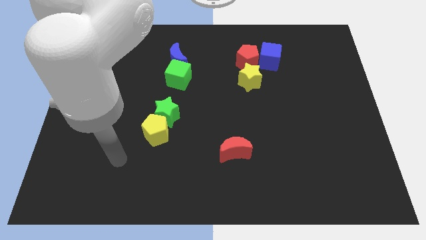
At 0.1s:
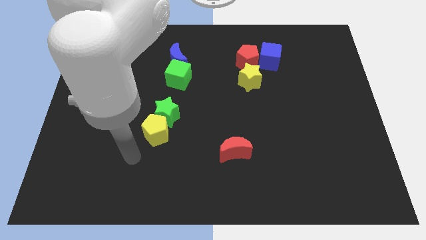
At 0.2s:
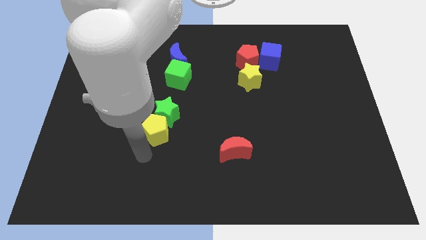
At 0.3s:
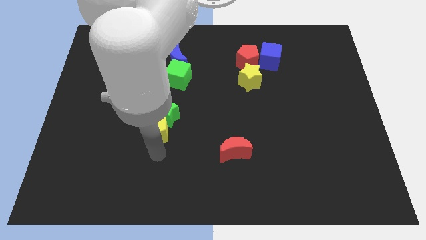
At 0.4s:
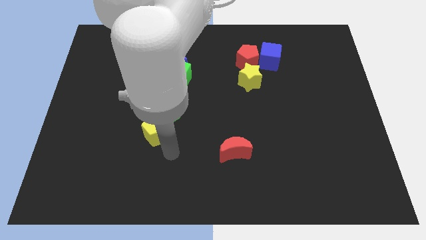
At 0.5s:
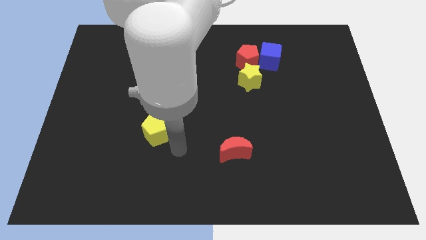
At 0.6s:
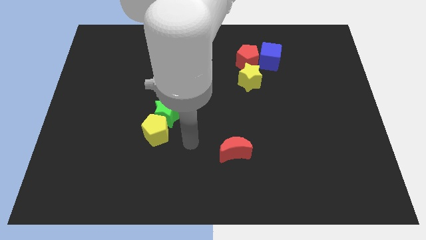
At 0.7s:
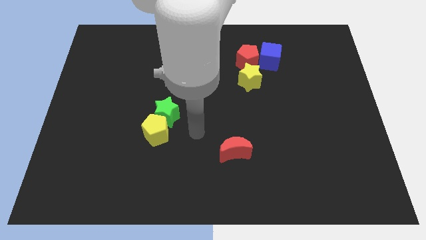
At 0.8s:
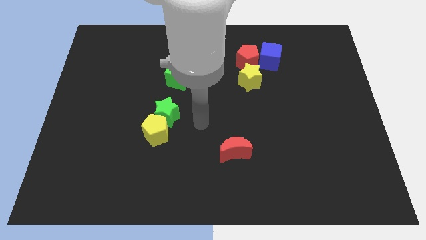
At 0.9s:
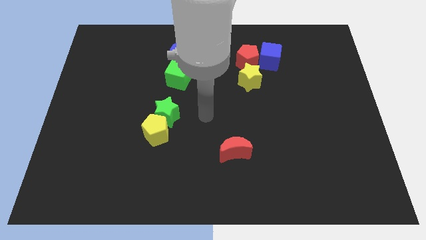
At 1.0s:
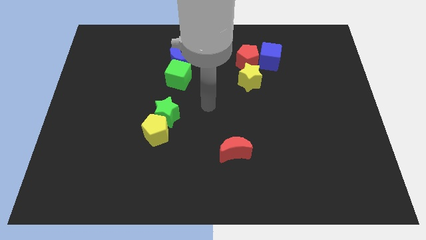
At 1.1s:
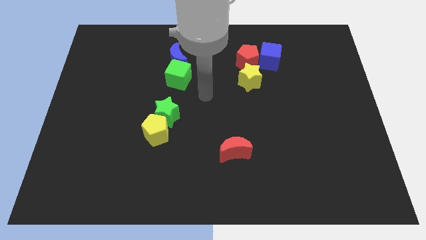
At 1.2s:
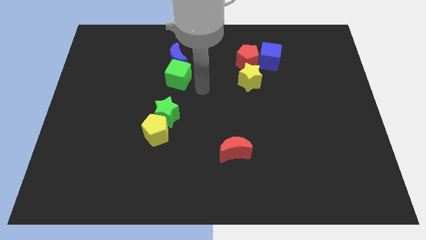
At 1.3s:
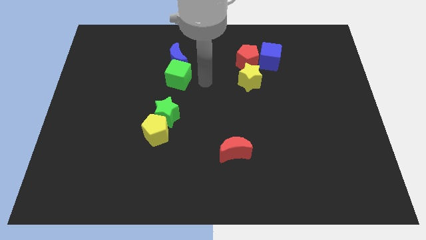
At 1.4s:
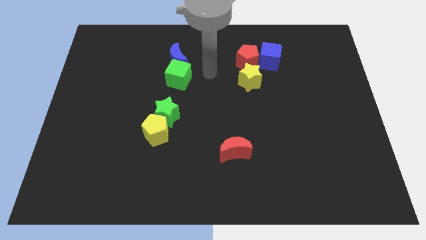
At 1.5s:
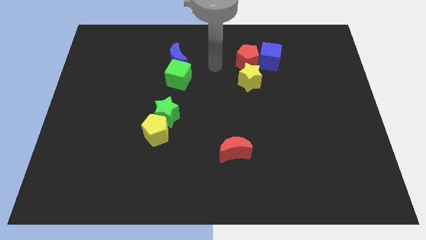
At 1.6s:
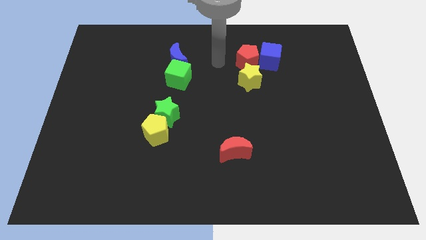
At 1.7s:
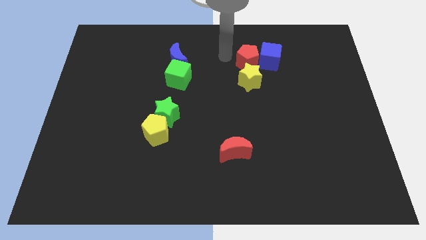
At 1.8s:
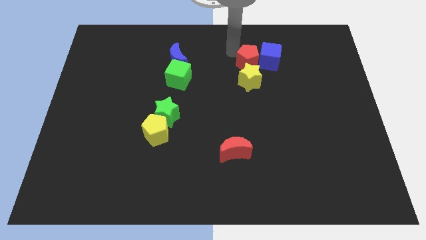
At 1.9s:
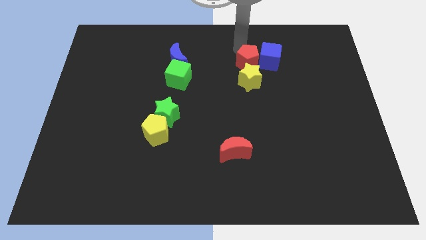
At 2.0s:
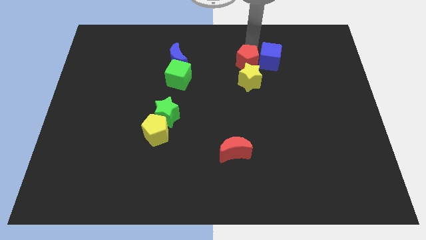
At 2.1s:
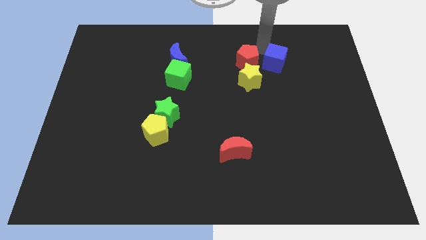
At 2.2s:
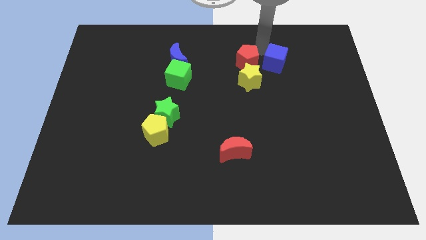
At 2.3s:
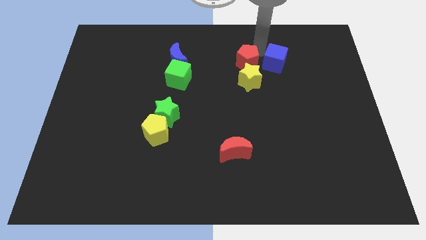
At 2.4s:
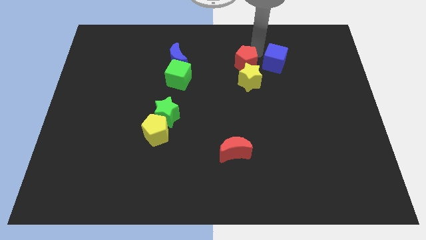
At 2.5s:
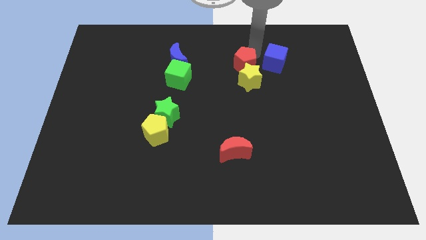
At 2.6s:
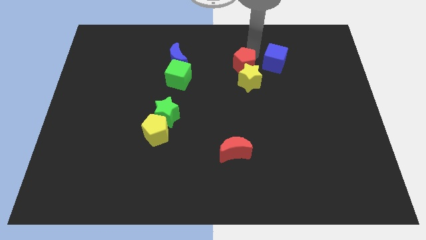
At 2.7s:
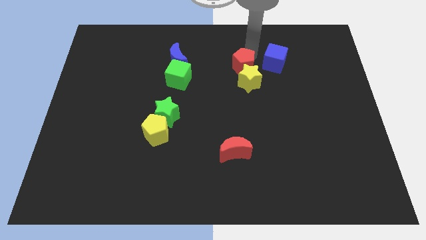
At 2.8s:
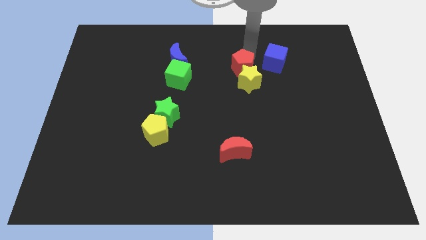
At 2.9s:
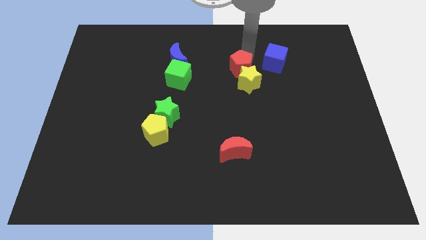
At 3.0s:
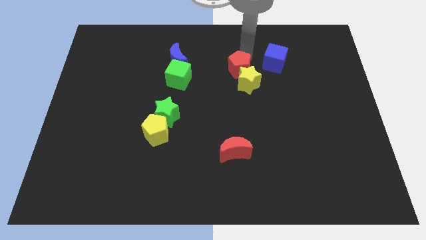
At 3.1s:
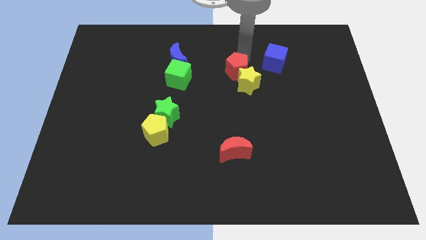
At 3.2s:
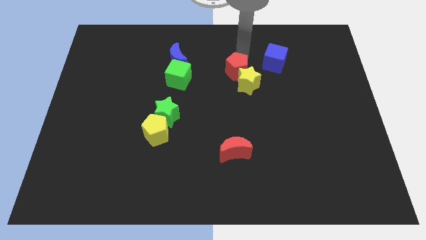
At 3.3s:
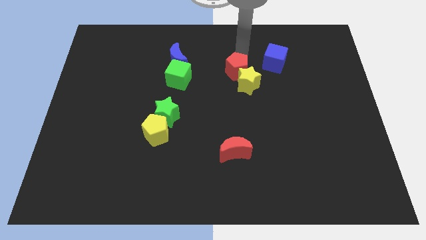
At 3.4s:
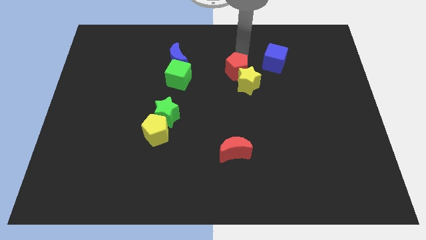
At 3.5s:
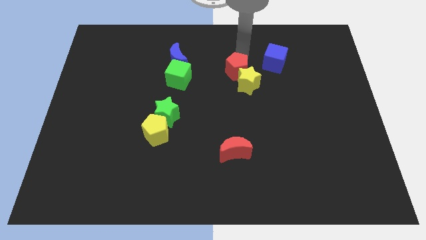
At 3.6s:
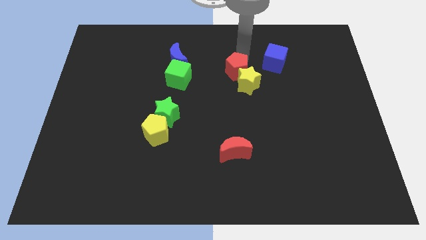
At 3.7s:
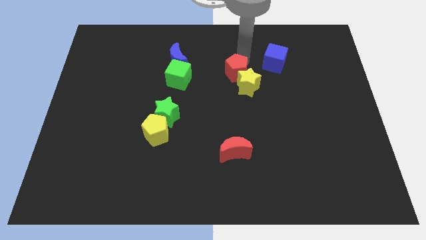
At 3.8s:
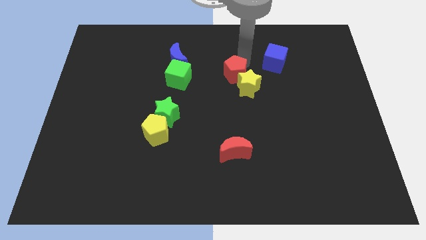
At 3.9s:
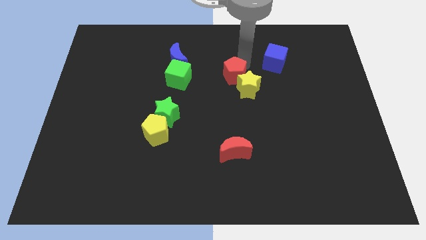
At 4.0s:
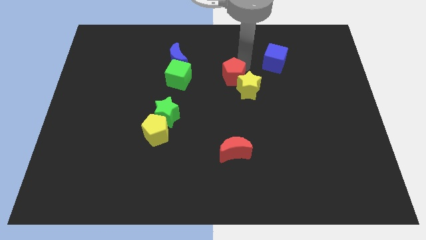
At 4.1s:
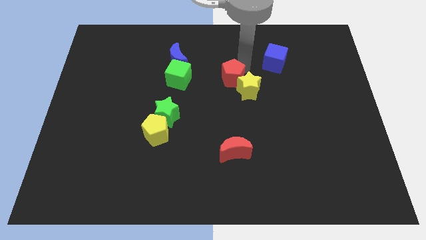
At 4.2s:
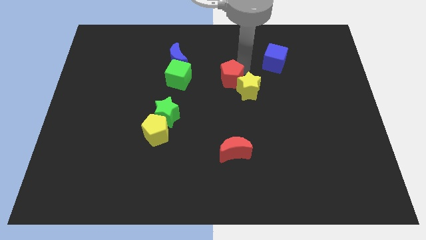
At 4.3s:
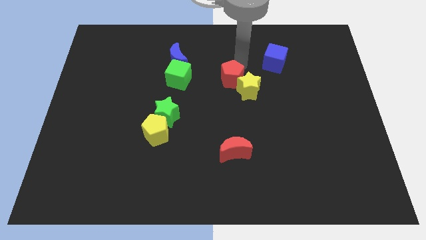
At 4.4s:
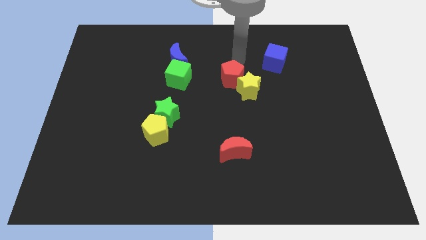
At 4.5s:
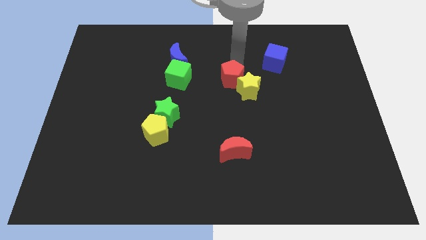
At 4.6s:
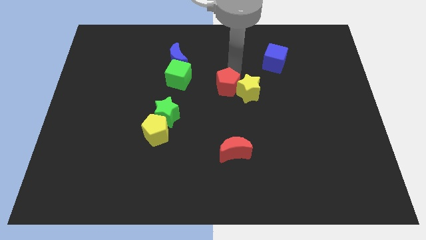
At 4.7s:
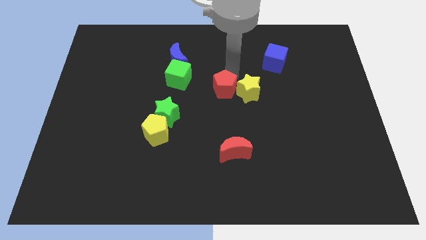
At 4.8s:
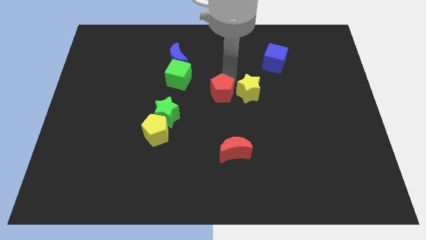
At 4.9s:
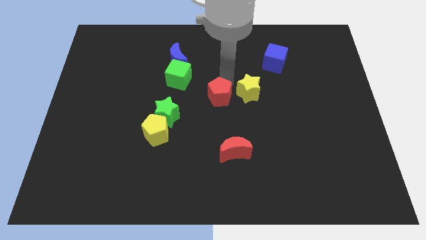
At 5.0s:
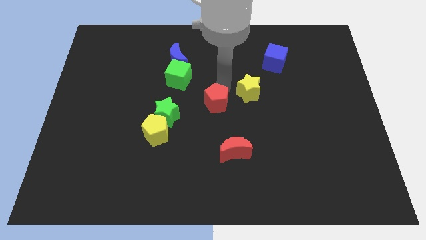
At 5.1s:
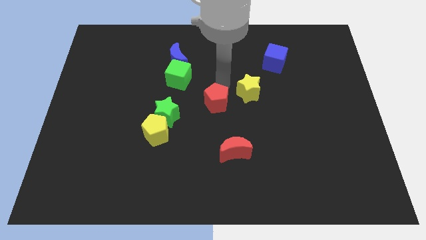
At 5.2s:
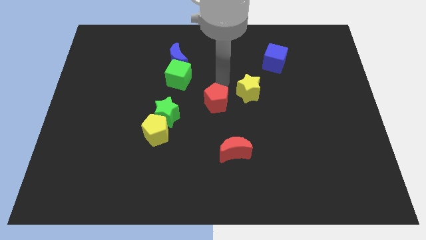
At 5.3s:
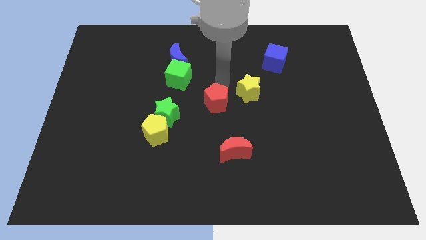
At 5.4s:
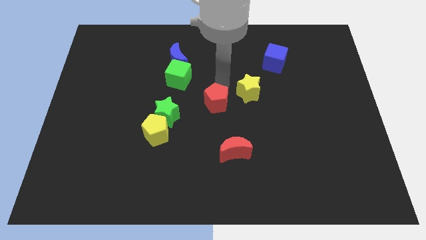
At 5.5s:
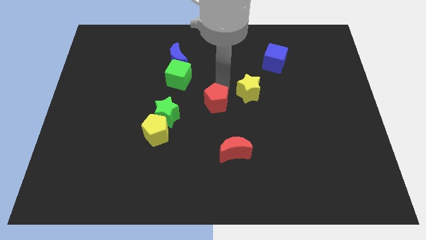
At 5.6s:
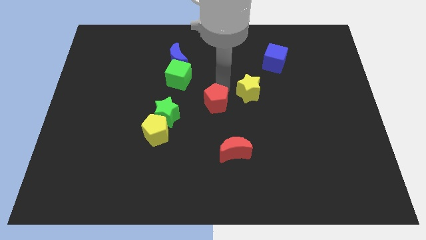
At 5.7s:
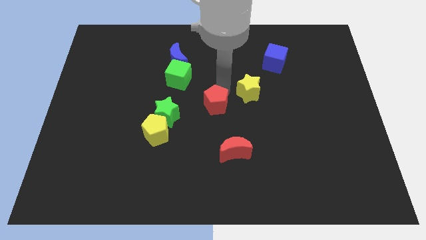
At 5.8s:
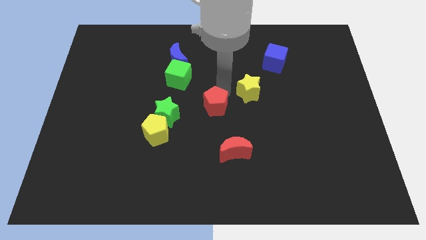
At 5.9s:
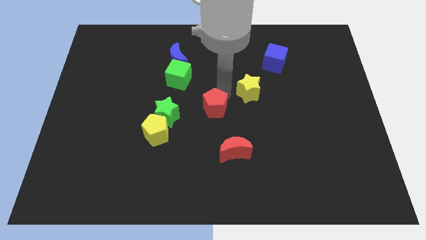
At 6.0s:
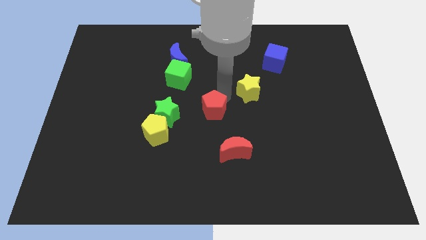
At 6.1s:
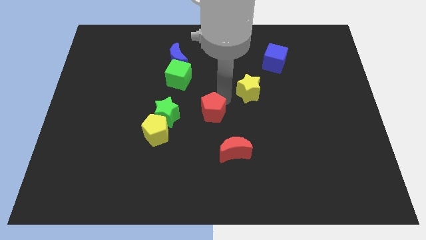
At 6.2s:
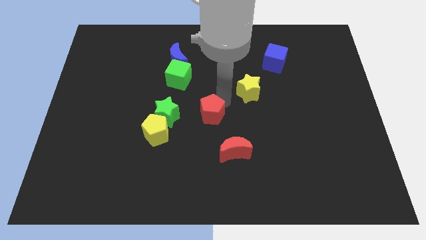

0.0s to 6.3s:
slide the red pentagon to the top left of the red moon

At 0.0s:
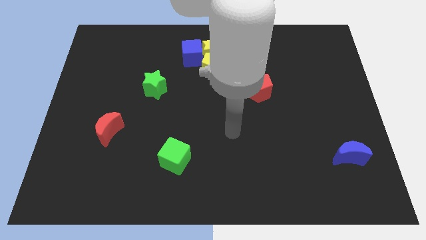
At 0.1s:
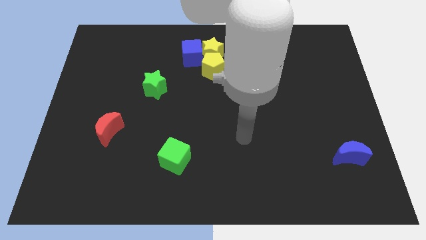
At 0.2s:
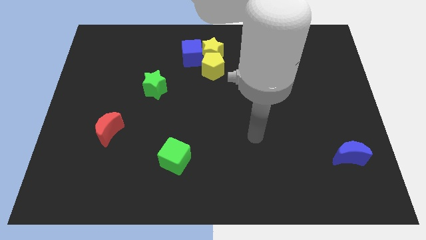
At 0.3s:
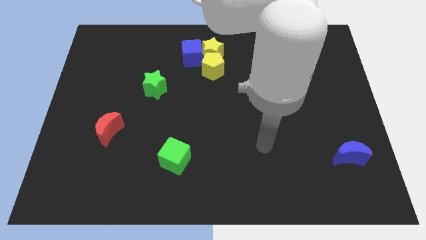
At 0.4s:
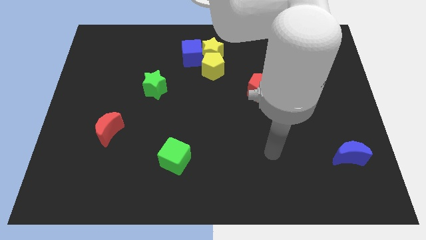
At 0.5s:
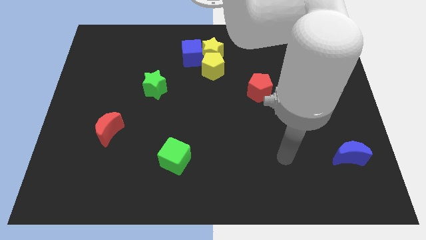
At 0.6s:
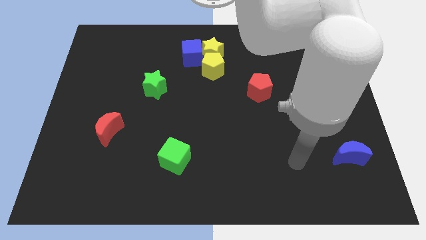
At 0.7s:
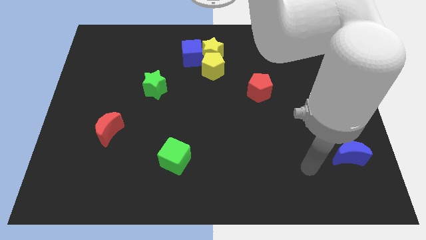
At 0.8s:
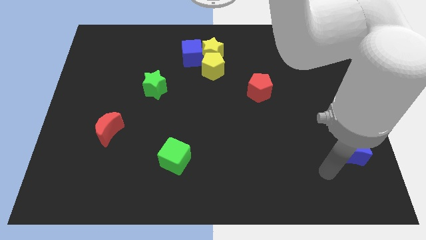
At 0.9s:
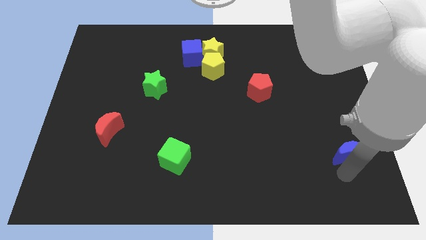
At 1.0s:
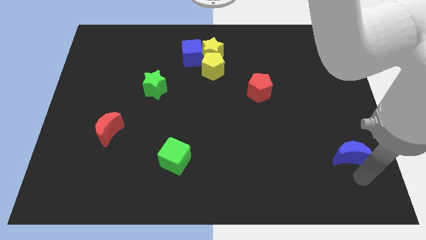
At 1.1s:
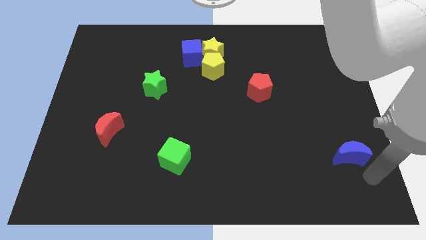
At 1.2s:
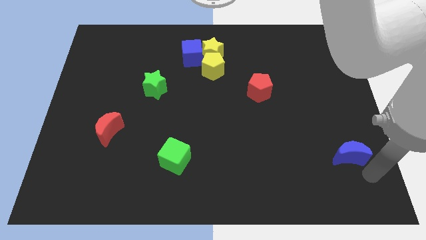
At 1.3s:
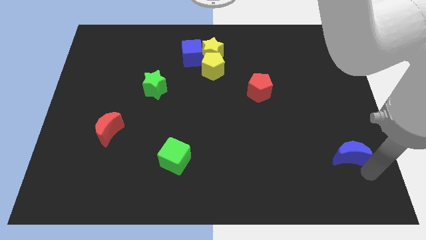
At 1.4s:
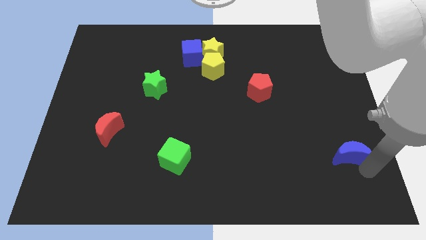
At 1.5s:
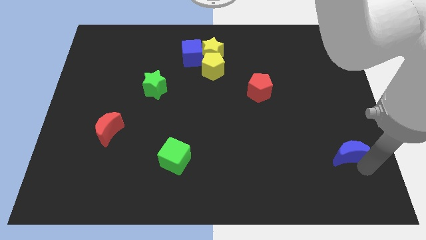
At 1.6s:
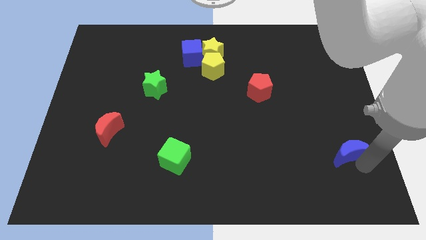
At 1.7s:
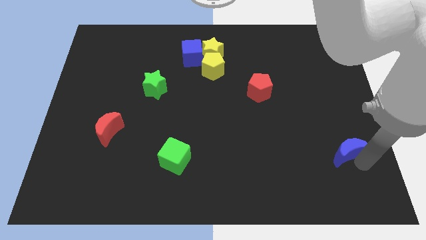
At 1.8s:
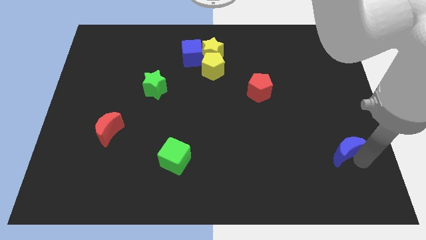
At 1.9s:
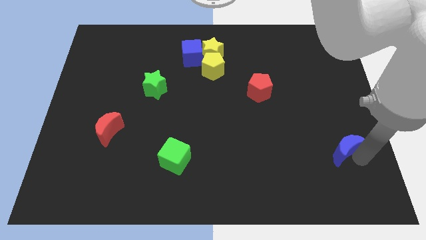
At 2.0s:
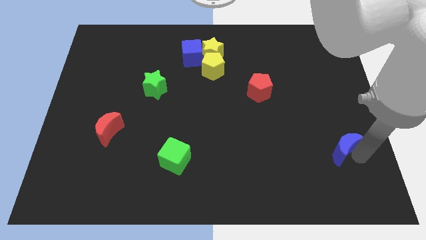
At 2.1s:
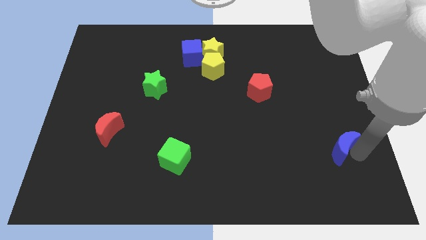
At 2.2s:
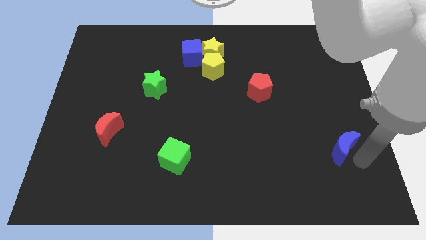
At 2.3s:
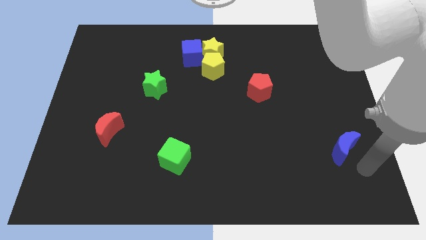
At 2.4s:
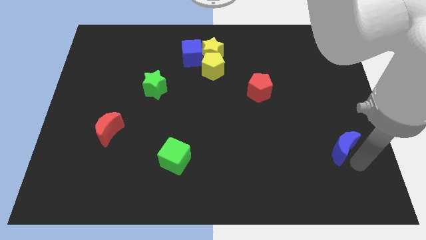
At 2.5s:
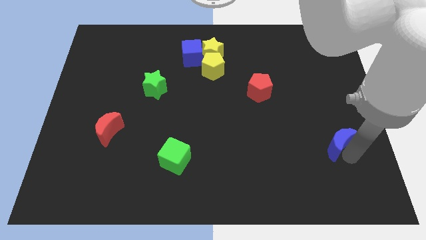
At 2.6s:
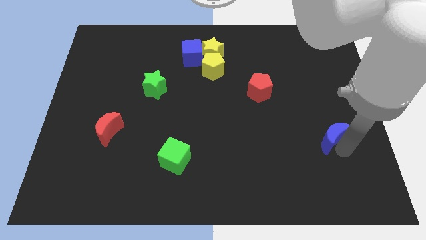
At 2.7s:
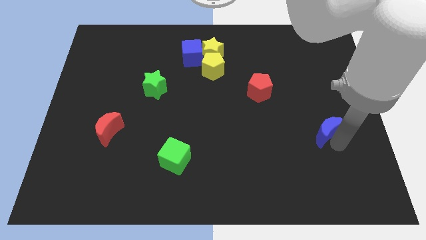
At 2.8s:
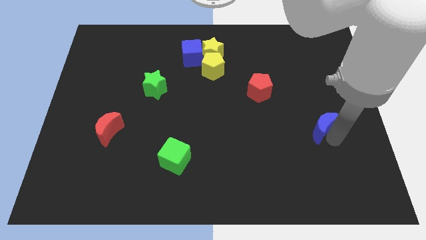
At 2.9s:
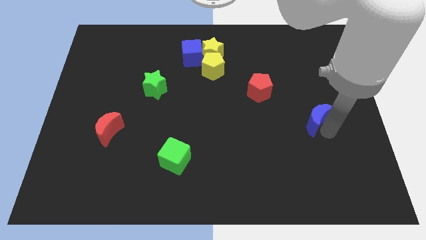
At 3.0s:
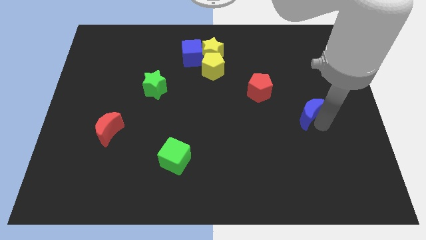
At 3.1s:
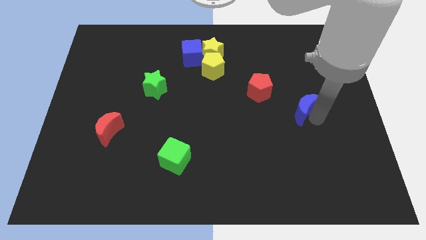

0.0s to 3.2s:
slide the blue moon to the bottom right side of the red pentagon
